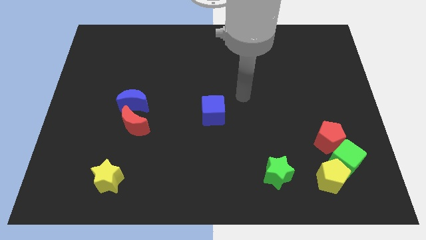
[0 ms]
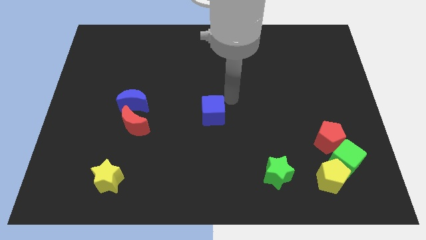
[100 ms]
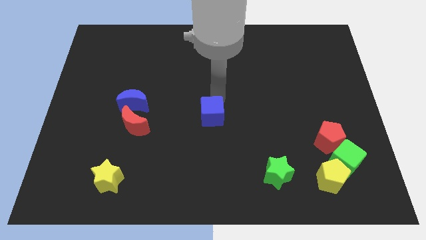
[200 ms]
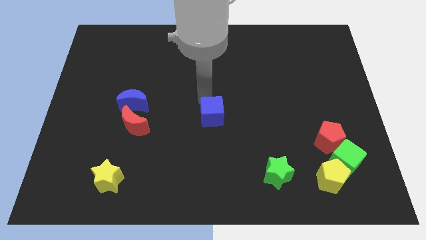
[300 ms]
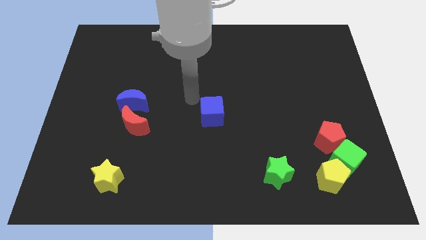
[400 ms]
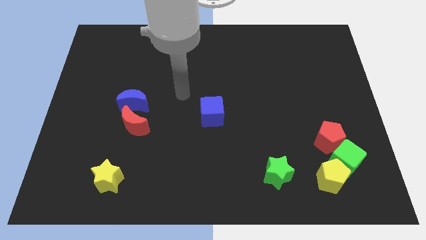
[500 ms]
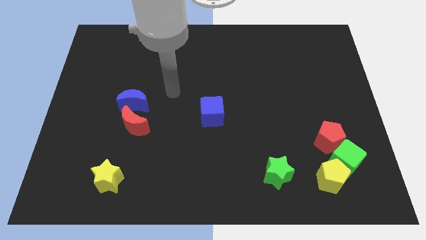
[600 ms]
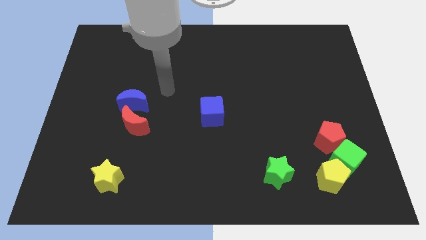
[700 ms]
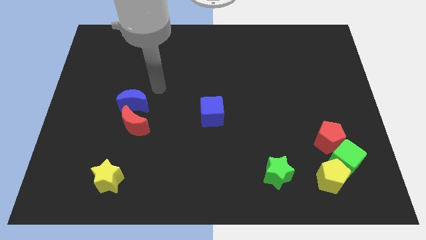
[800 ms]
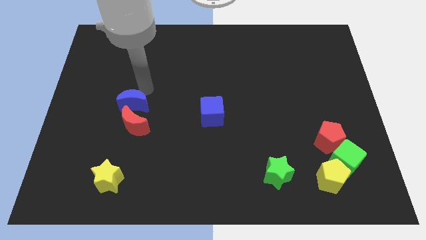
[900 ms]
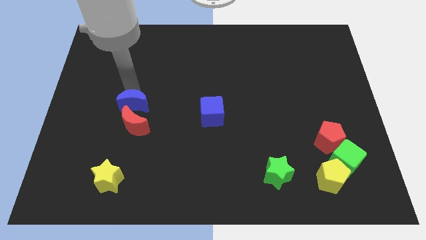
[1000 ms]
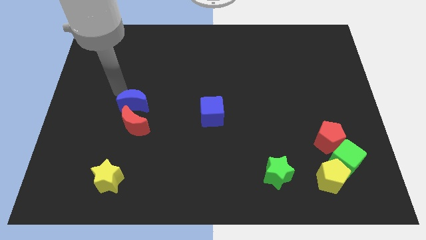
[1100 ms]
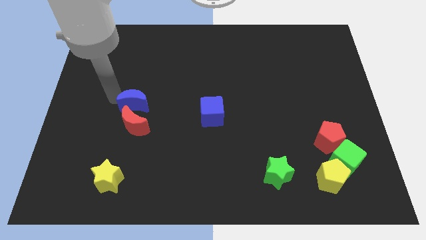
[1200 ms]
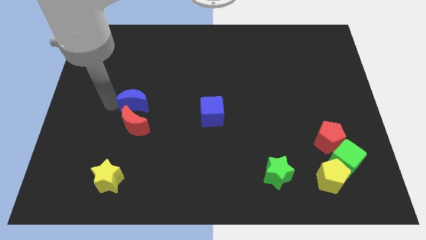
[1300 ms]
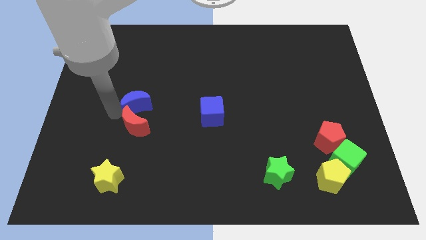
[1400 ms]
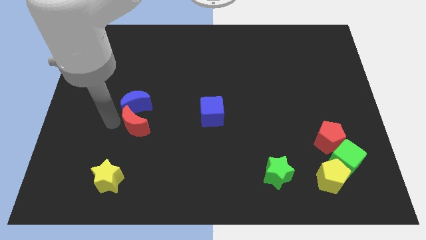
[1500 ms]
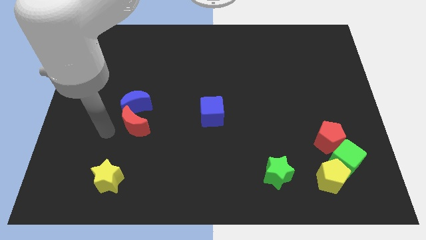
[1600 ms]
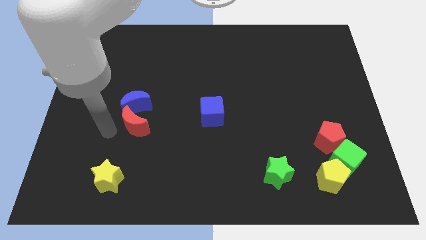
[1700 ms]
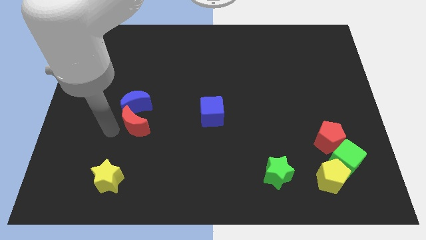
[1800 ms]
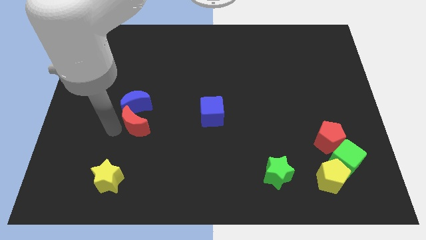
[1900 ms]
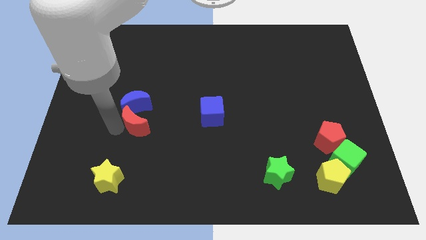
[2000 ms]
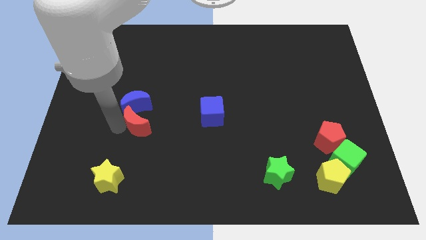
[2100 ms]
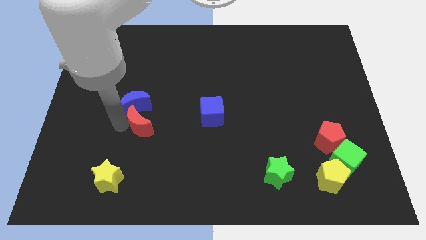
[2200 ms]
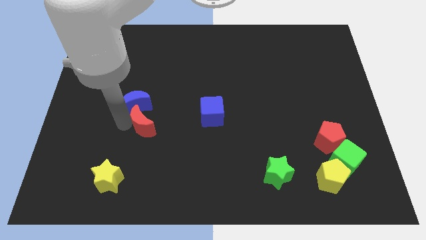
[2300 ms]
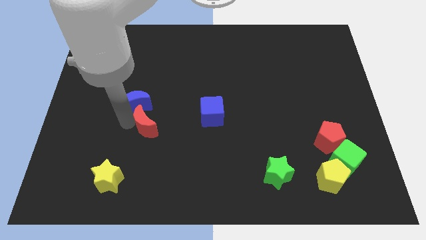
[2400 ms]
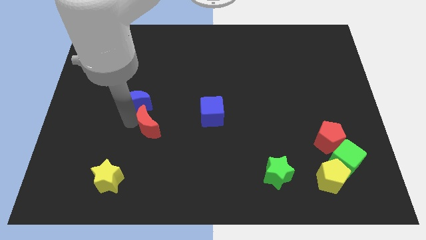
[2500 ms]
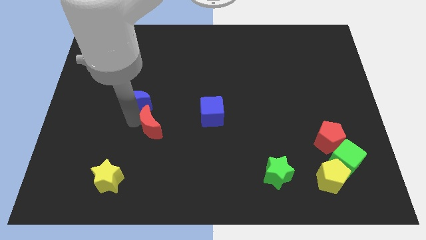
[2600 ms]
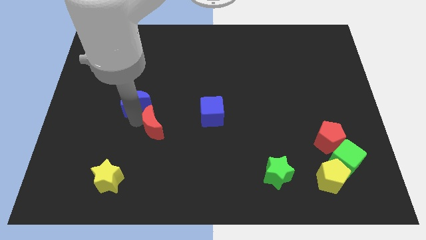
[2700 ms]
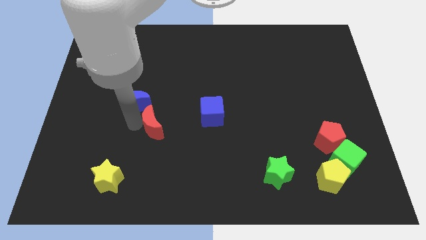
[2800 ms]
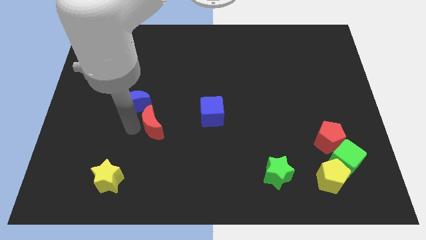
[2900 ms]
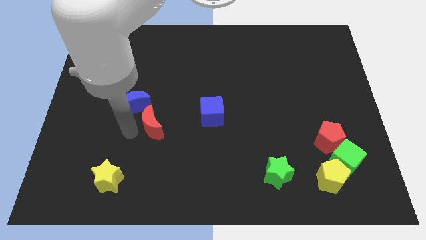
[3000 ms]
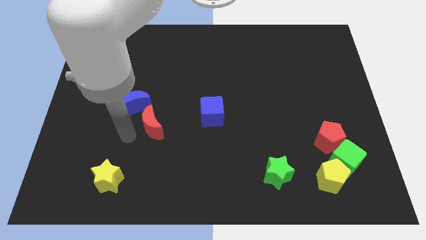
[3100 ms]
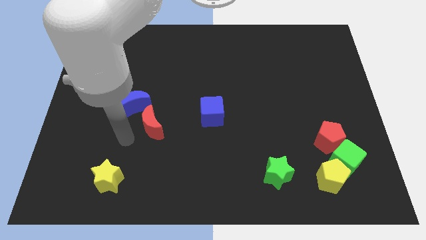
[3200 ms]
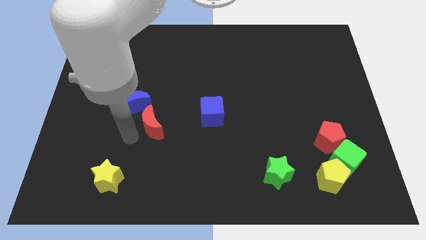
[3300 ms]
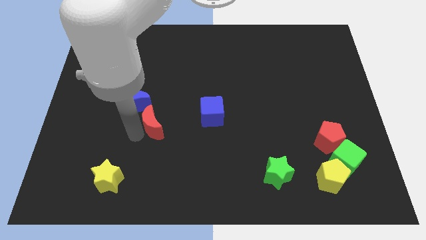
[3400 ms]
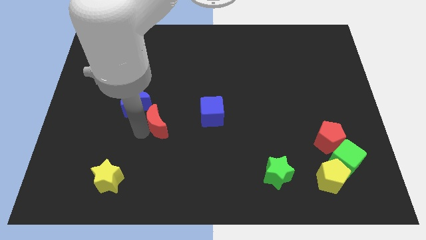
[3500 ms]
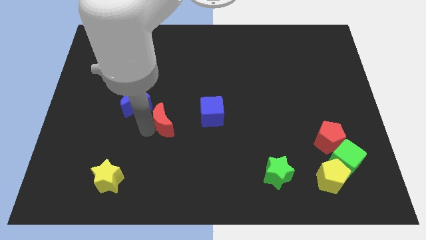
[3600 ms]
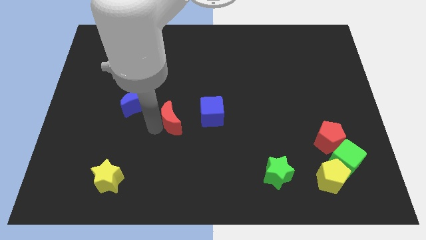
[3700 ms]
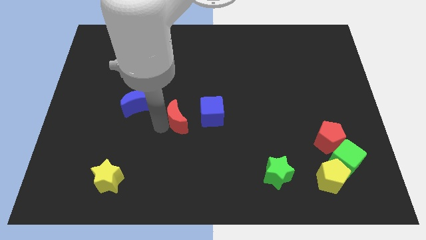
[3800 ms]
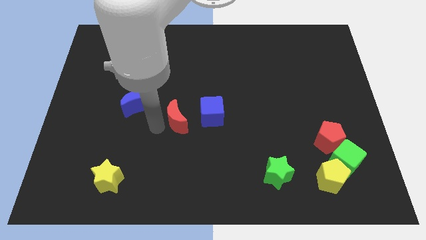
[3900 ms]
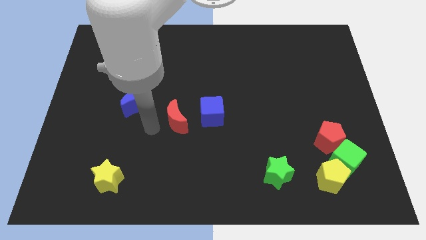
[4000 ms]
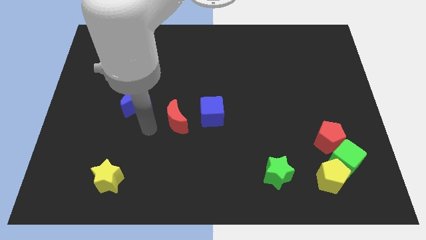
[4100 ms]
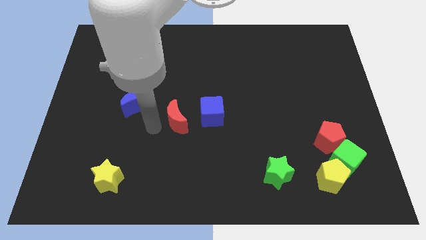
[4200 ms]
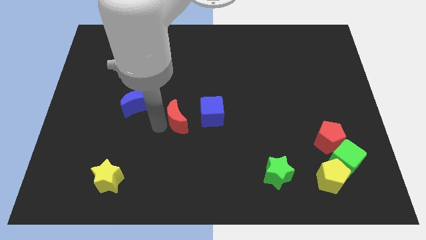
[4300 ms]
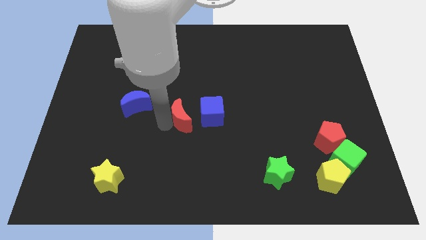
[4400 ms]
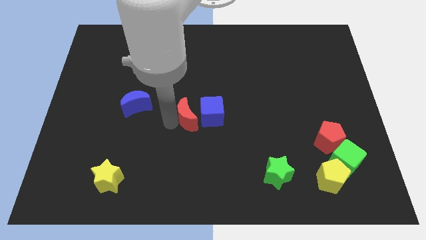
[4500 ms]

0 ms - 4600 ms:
put the red moon towards the blue cube

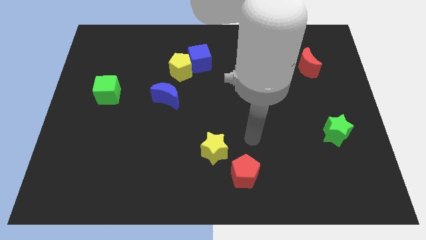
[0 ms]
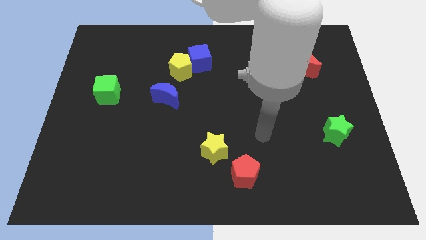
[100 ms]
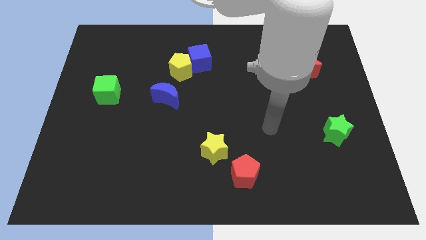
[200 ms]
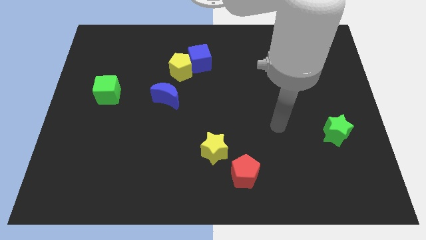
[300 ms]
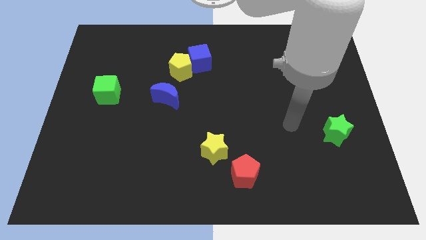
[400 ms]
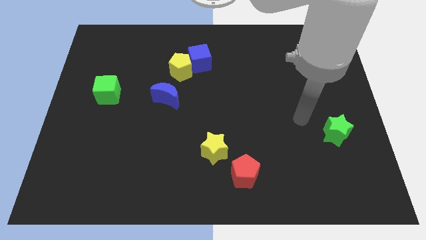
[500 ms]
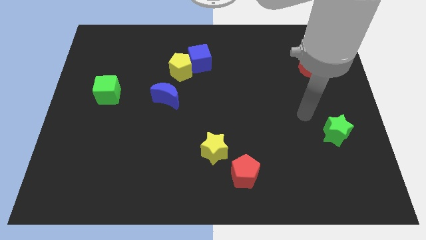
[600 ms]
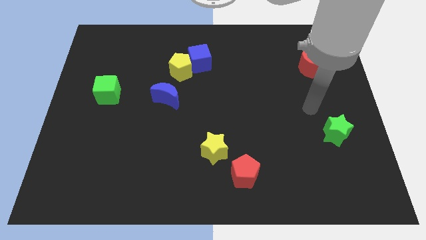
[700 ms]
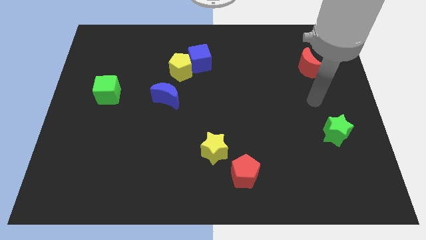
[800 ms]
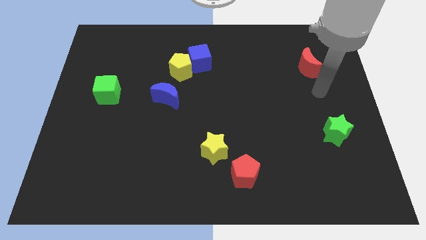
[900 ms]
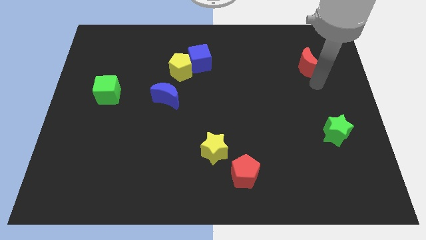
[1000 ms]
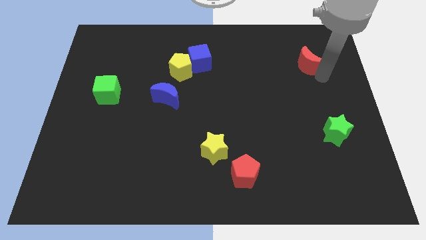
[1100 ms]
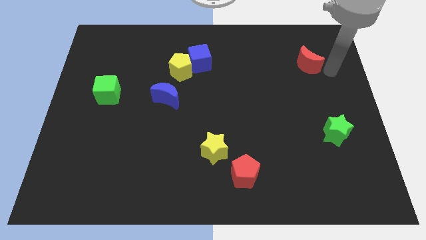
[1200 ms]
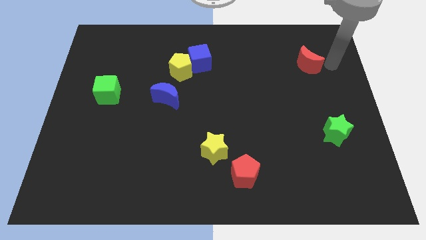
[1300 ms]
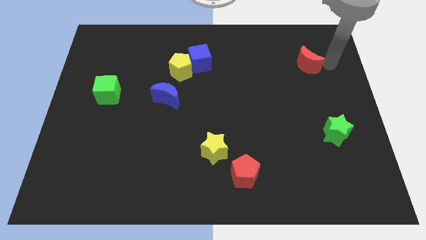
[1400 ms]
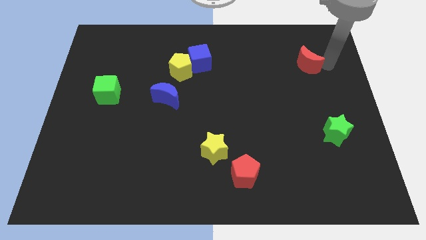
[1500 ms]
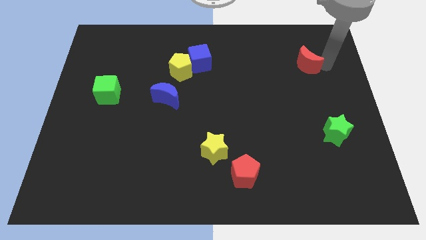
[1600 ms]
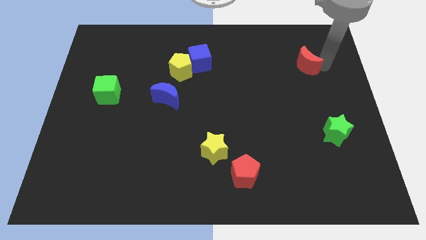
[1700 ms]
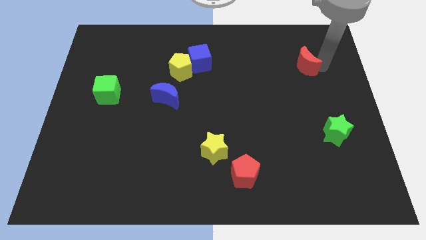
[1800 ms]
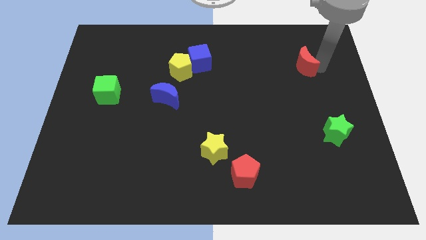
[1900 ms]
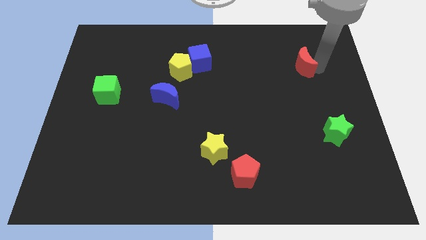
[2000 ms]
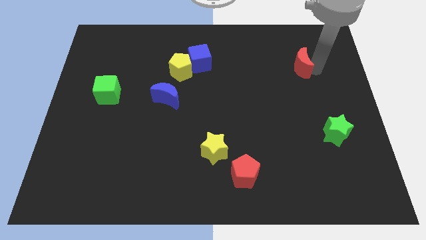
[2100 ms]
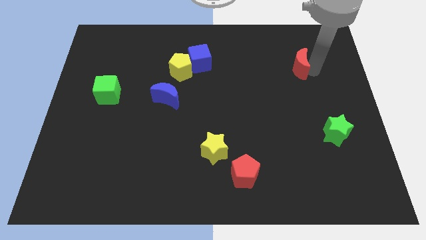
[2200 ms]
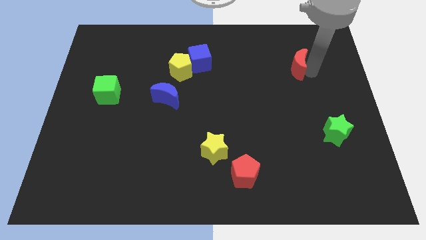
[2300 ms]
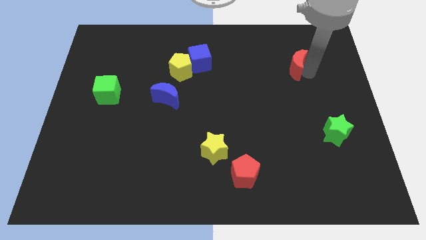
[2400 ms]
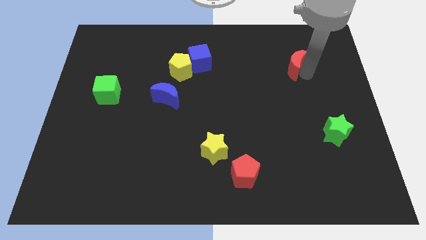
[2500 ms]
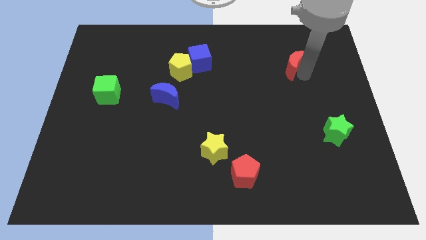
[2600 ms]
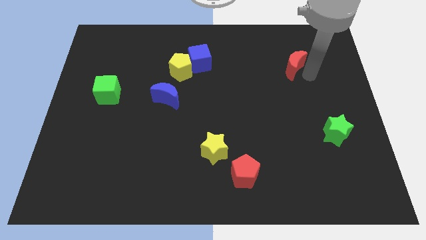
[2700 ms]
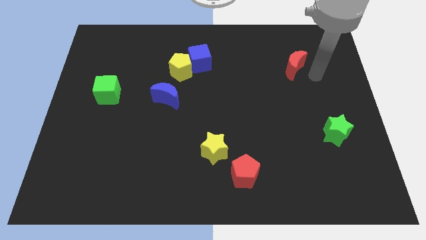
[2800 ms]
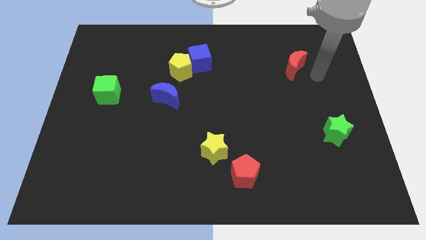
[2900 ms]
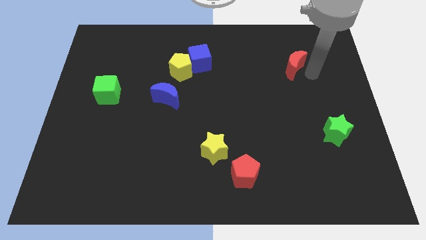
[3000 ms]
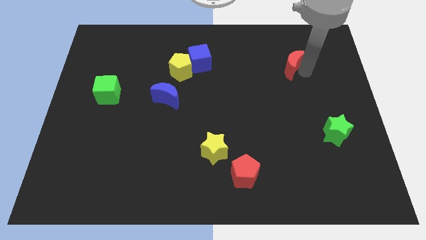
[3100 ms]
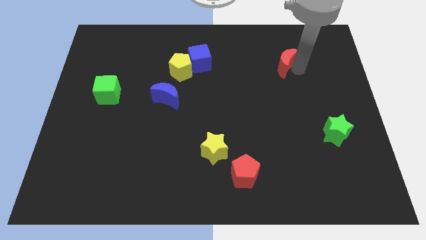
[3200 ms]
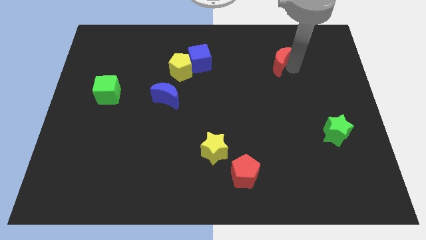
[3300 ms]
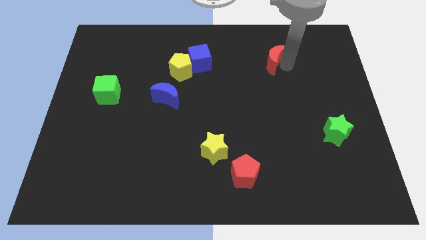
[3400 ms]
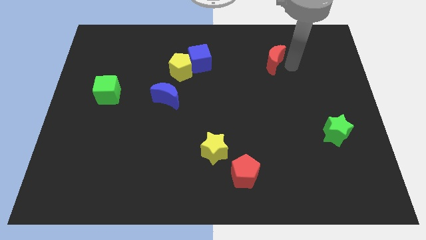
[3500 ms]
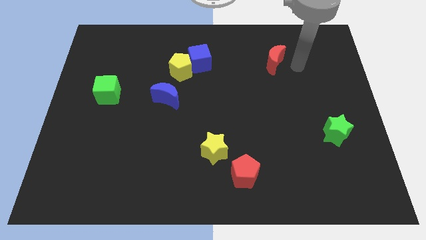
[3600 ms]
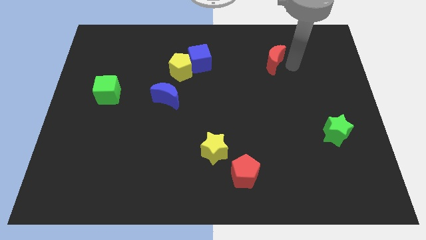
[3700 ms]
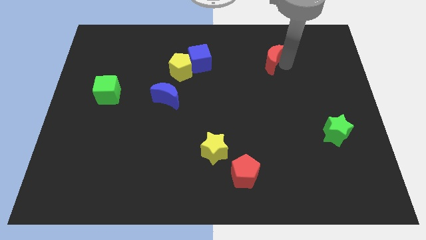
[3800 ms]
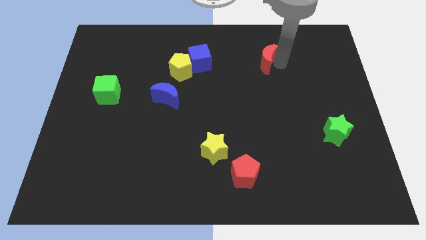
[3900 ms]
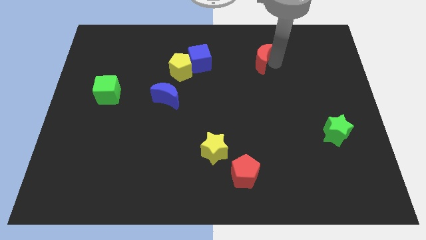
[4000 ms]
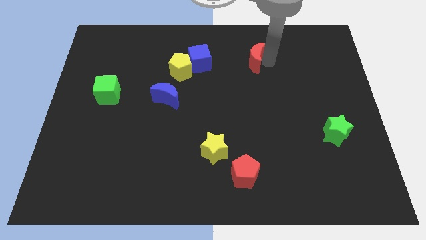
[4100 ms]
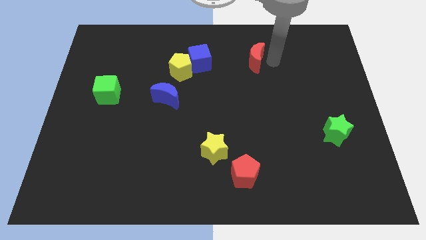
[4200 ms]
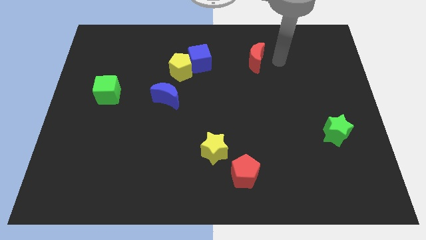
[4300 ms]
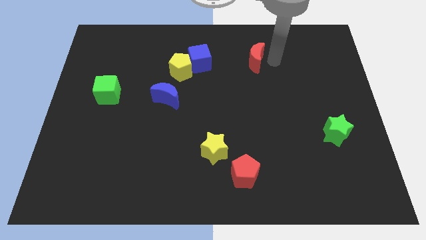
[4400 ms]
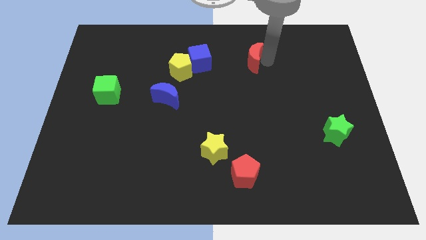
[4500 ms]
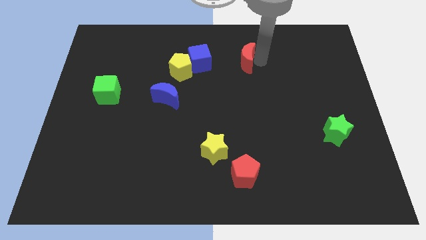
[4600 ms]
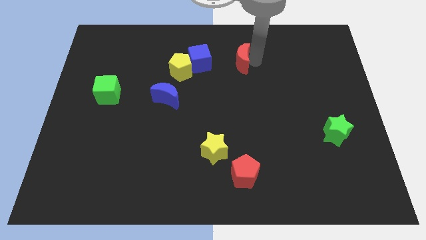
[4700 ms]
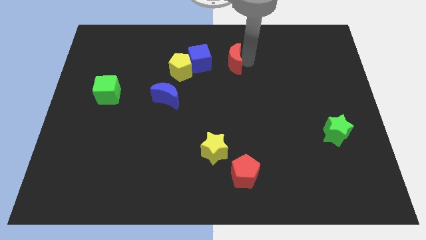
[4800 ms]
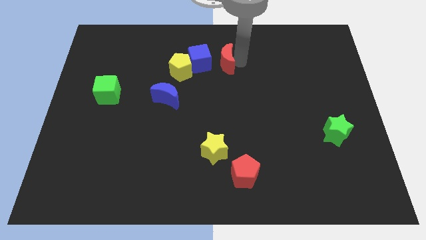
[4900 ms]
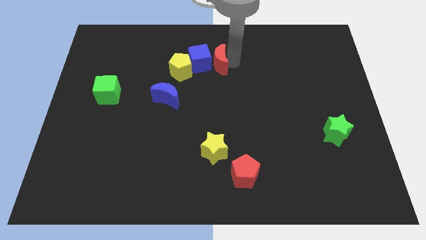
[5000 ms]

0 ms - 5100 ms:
move the red moon towards the blue cube
